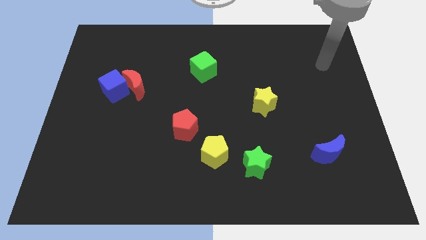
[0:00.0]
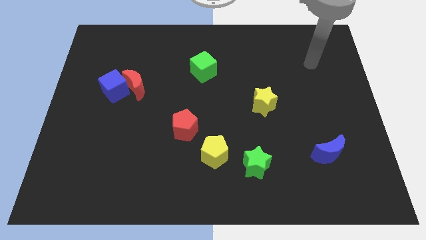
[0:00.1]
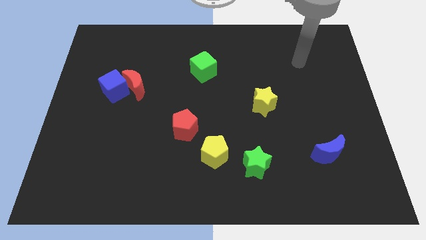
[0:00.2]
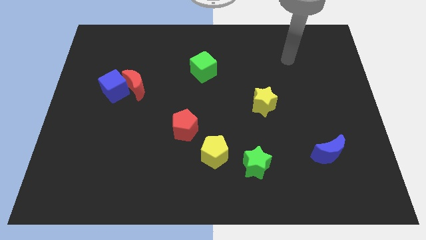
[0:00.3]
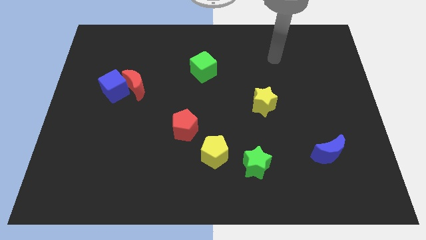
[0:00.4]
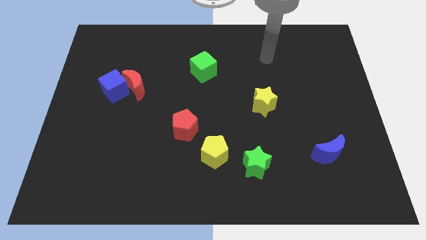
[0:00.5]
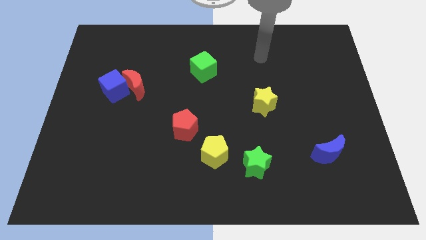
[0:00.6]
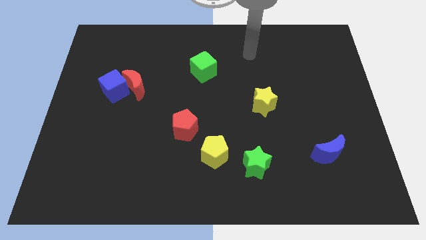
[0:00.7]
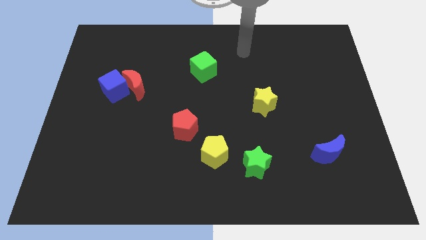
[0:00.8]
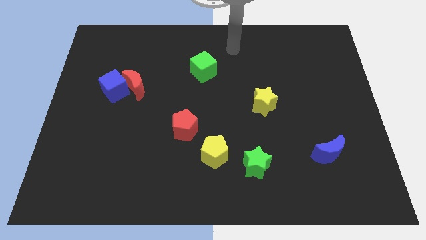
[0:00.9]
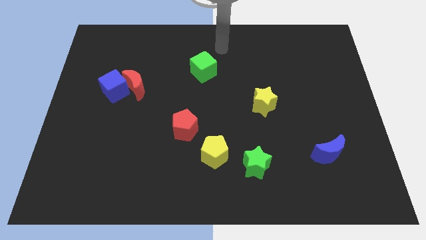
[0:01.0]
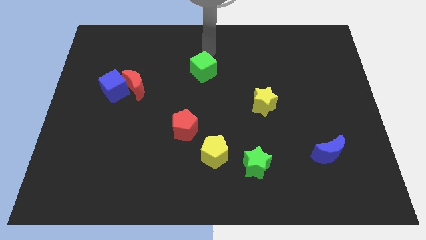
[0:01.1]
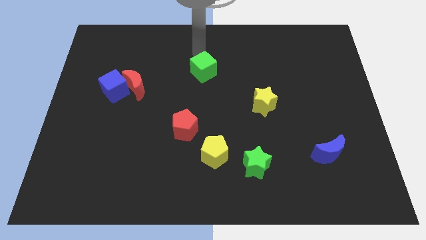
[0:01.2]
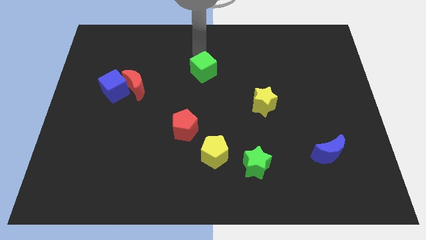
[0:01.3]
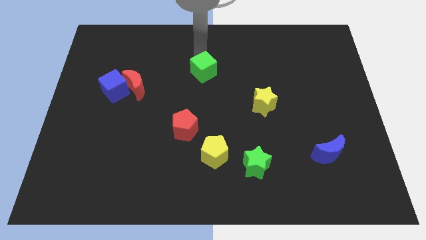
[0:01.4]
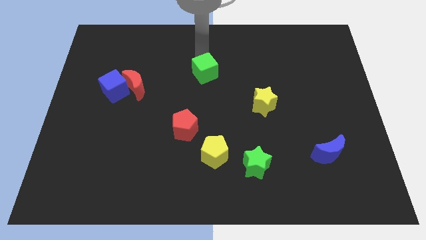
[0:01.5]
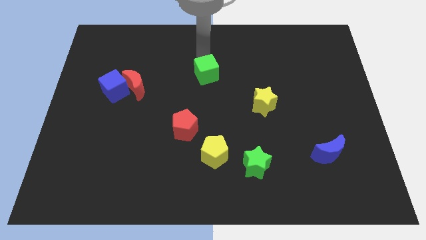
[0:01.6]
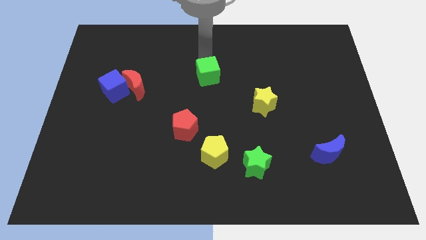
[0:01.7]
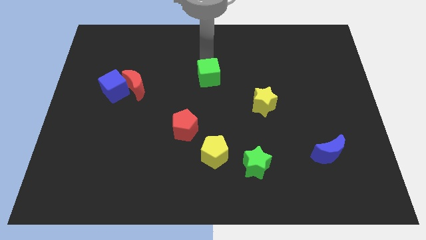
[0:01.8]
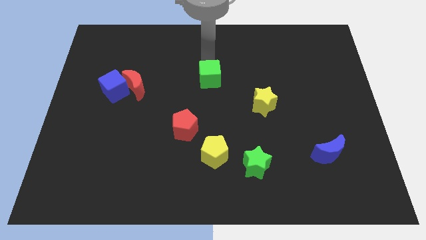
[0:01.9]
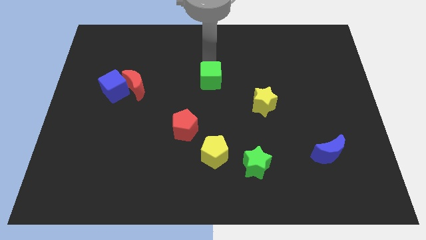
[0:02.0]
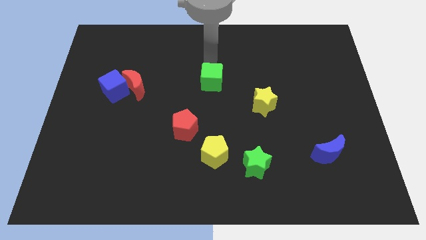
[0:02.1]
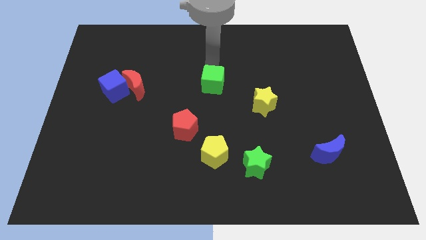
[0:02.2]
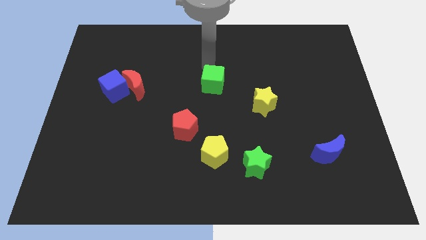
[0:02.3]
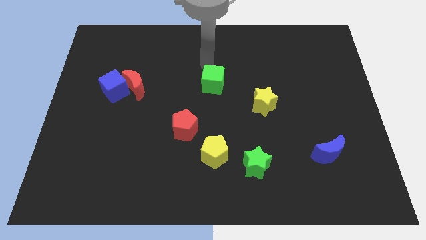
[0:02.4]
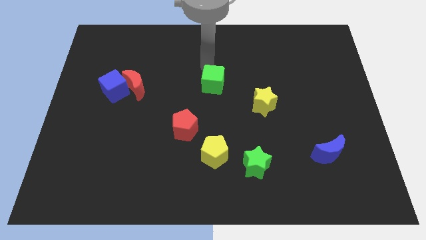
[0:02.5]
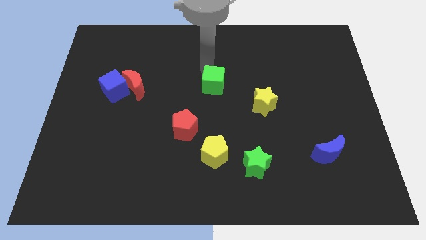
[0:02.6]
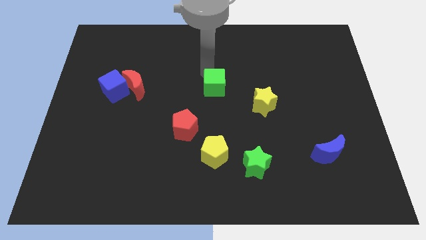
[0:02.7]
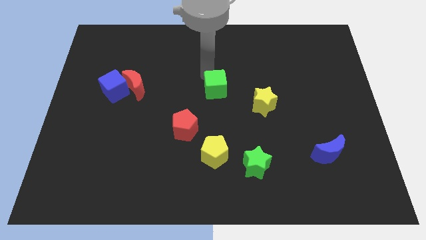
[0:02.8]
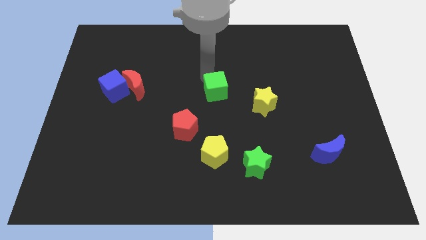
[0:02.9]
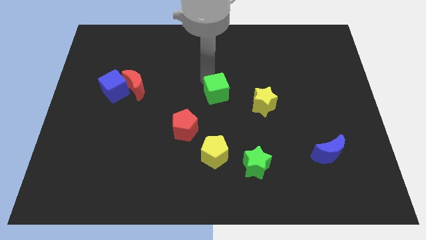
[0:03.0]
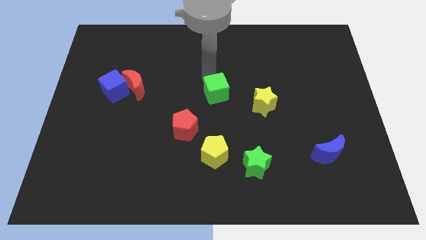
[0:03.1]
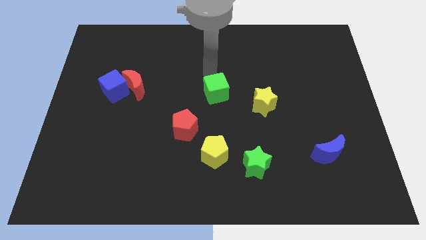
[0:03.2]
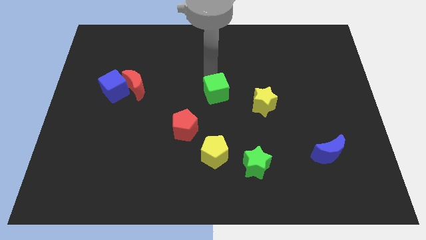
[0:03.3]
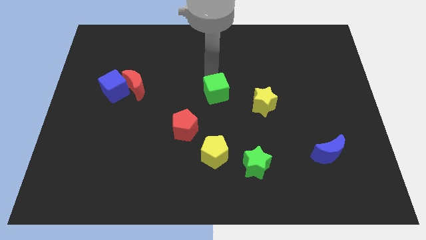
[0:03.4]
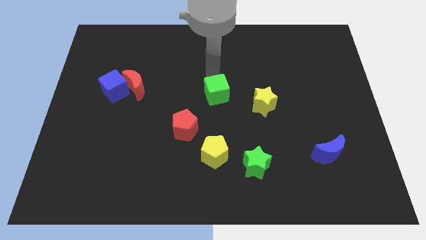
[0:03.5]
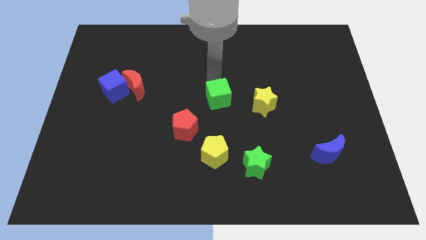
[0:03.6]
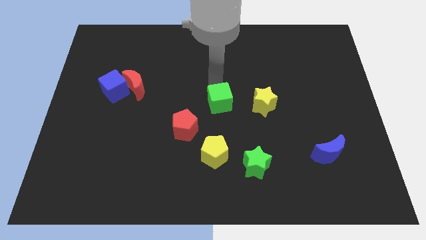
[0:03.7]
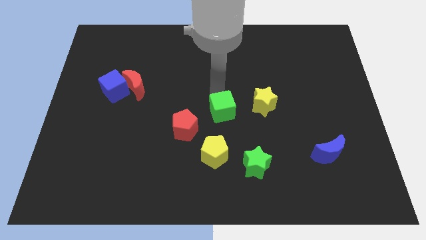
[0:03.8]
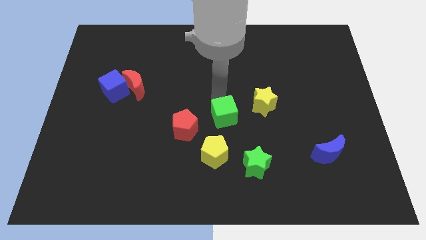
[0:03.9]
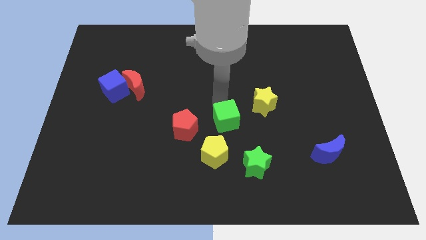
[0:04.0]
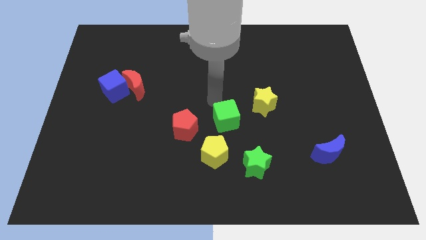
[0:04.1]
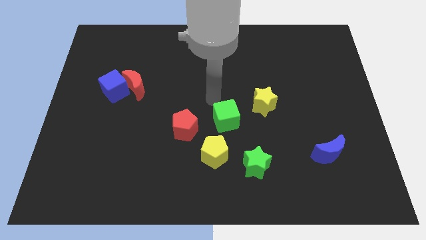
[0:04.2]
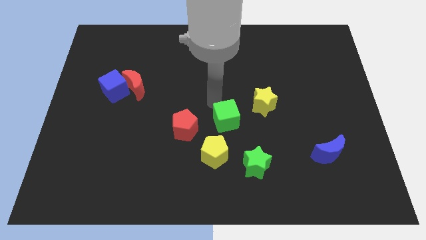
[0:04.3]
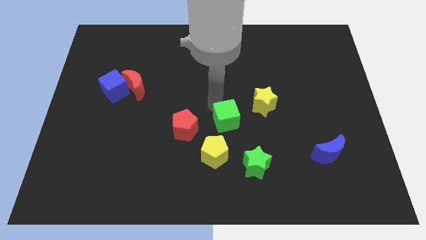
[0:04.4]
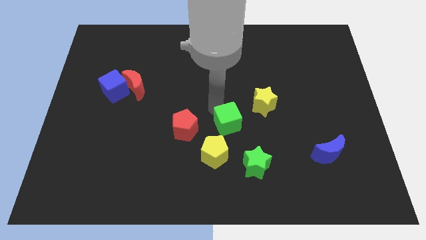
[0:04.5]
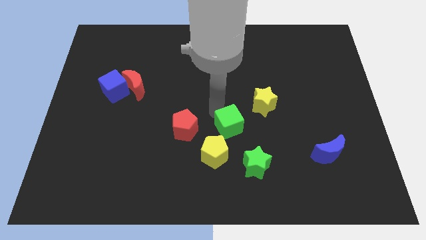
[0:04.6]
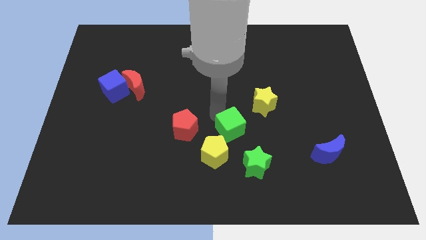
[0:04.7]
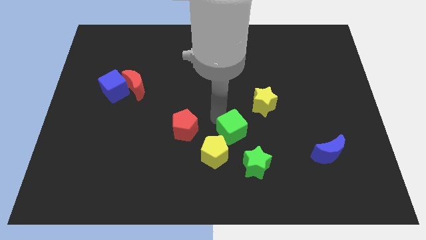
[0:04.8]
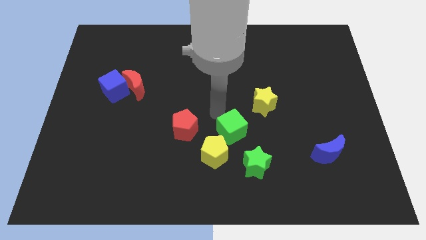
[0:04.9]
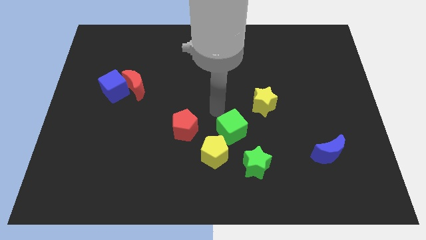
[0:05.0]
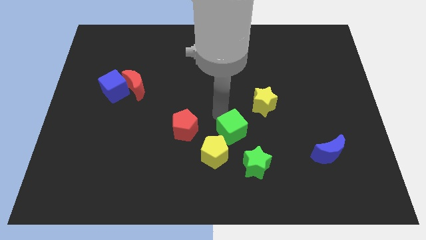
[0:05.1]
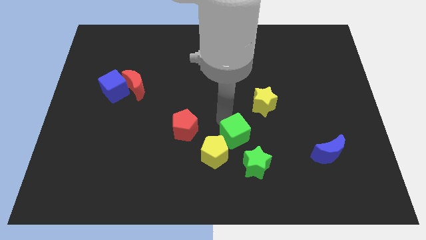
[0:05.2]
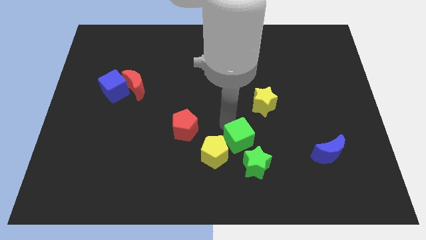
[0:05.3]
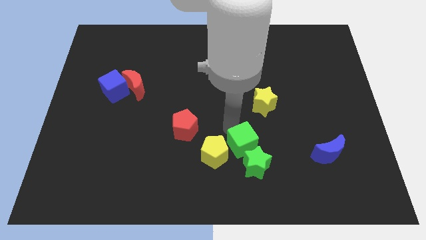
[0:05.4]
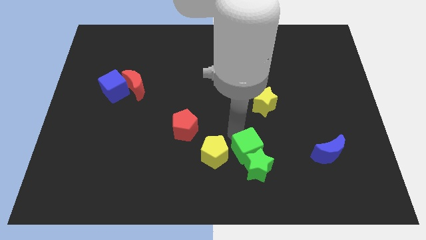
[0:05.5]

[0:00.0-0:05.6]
push the green cube towards the green star

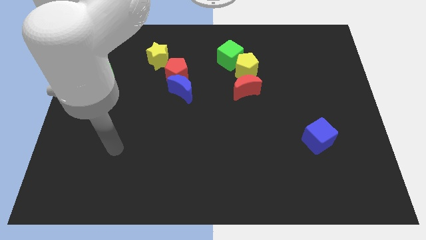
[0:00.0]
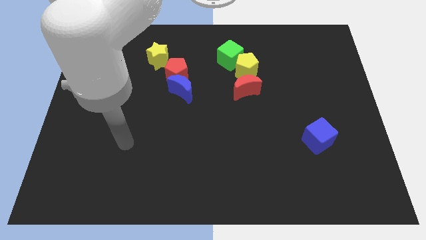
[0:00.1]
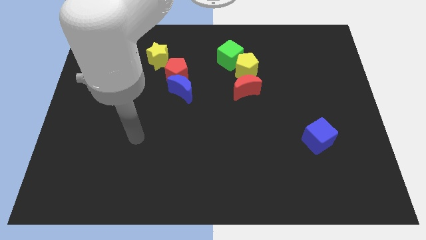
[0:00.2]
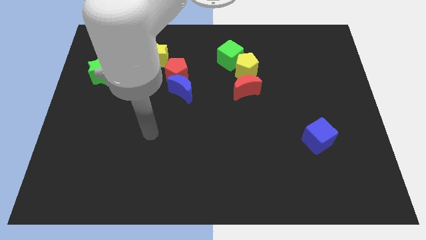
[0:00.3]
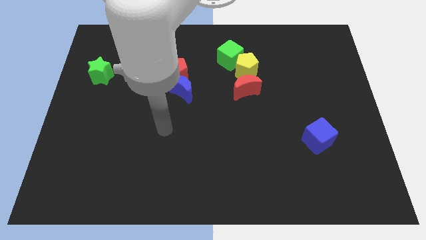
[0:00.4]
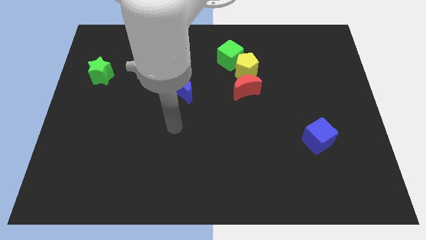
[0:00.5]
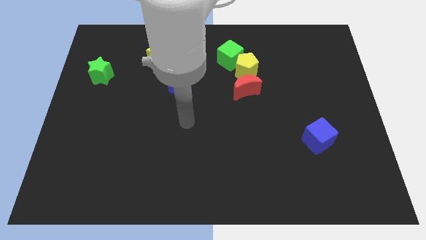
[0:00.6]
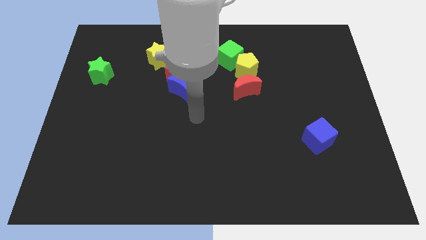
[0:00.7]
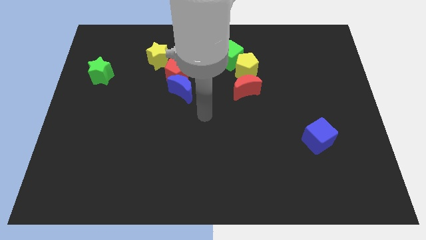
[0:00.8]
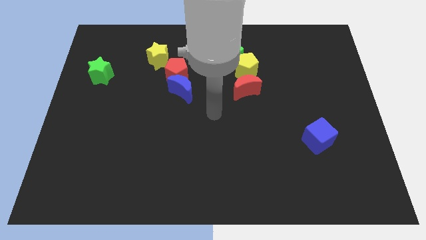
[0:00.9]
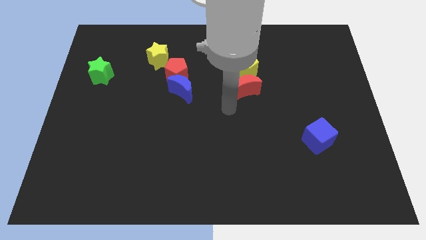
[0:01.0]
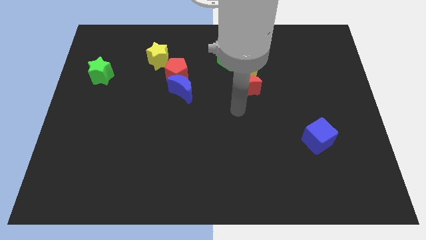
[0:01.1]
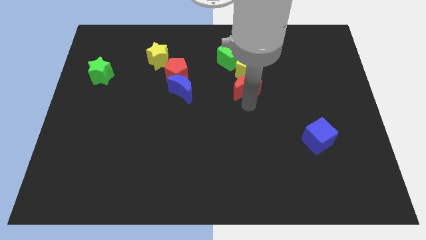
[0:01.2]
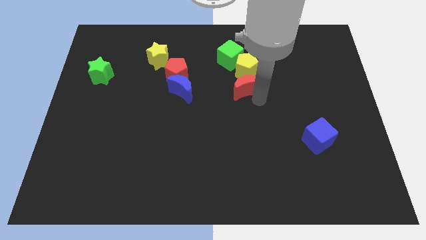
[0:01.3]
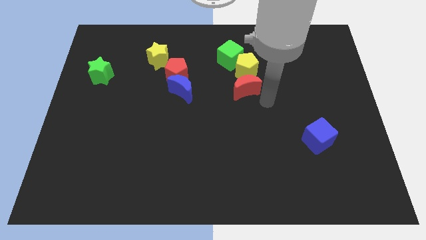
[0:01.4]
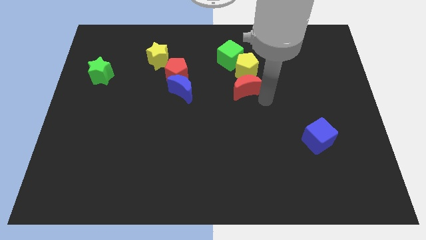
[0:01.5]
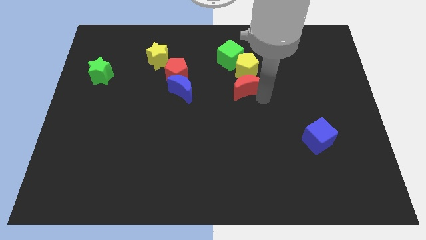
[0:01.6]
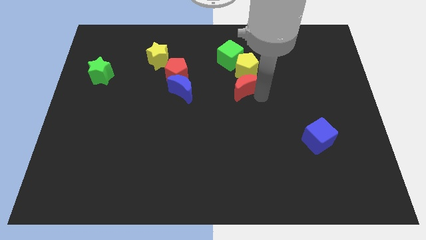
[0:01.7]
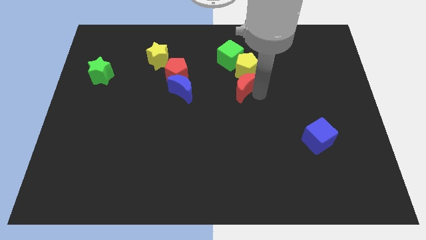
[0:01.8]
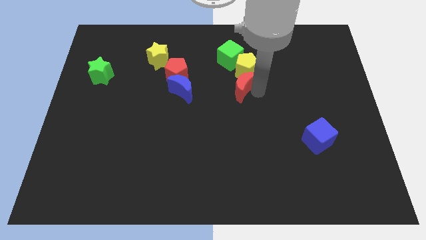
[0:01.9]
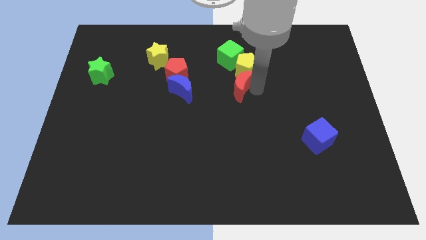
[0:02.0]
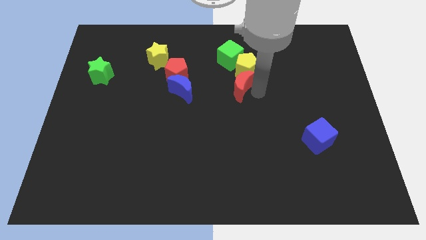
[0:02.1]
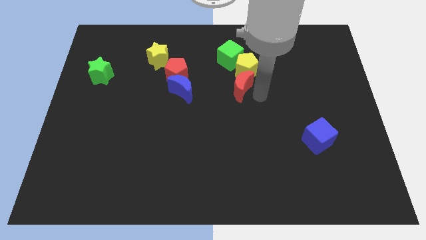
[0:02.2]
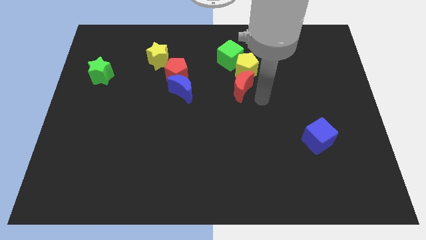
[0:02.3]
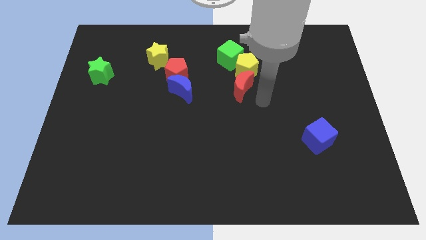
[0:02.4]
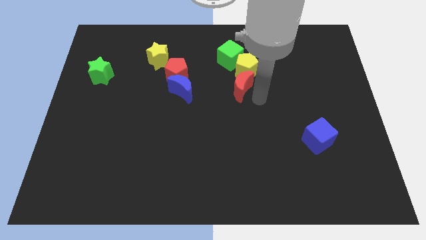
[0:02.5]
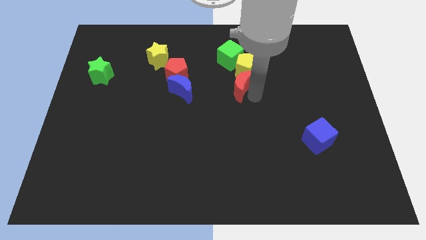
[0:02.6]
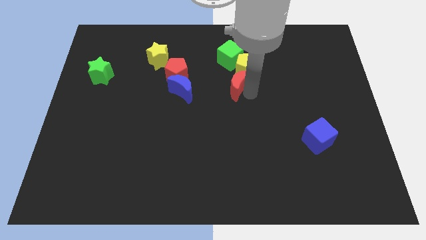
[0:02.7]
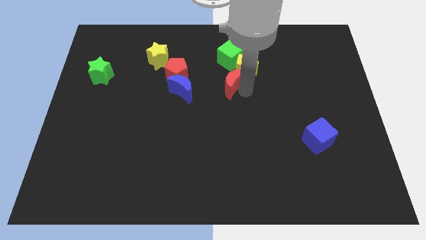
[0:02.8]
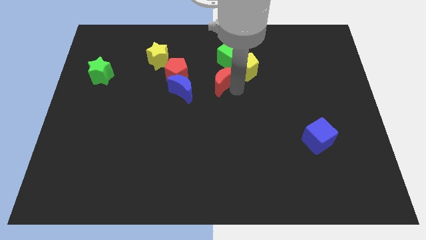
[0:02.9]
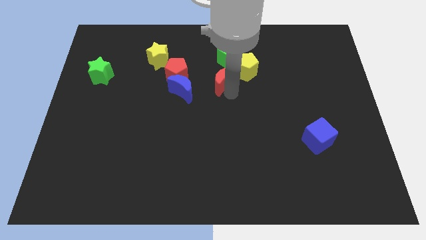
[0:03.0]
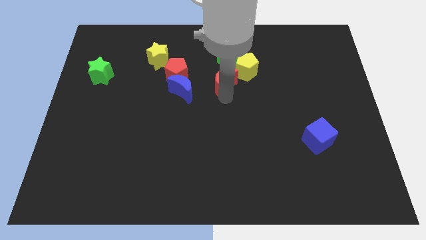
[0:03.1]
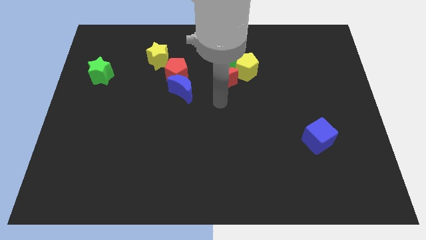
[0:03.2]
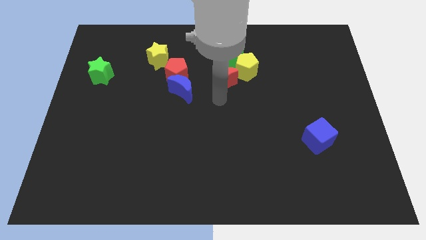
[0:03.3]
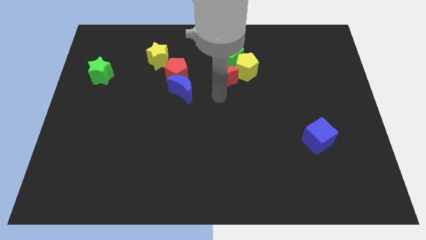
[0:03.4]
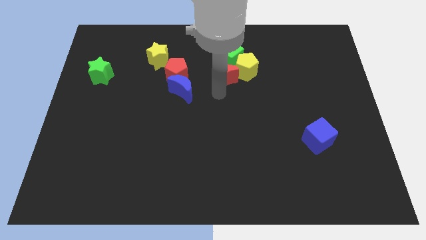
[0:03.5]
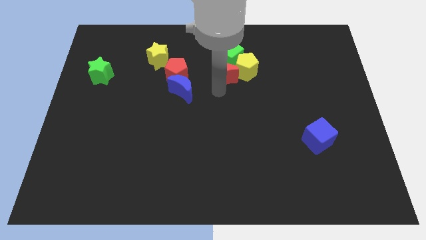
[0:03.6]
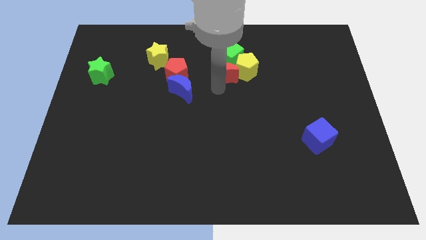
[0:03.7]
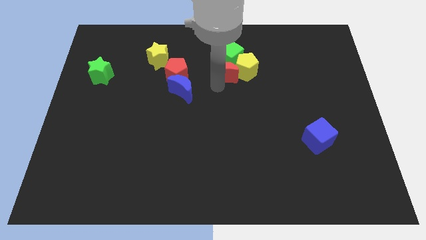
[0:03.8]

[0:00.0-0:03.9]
put the red moon close to the green cube
